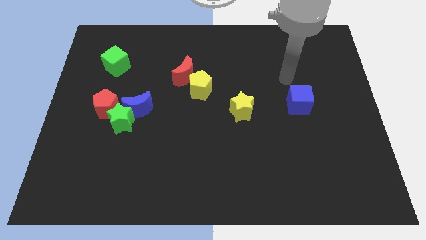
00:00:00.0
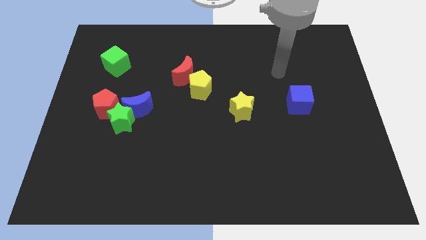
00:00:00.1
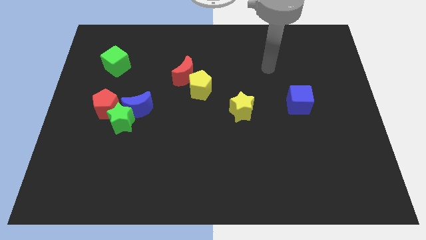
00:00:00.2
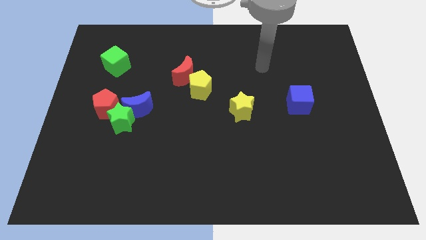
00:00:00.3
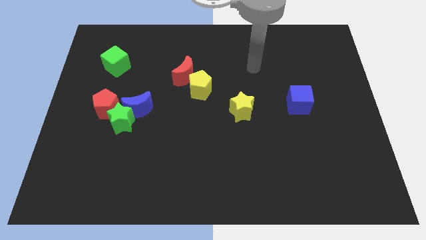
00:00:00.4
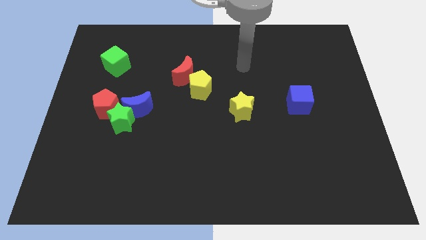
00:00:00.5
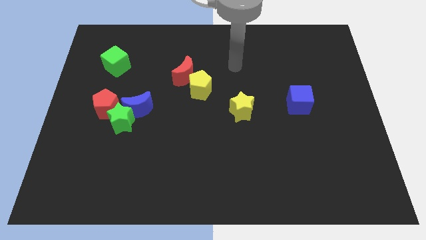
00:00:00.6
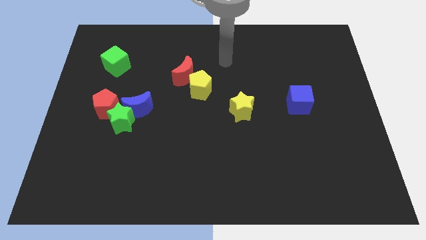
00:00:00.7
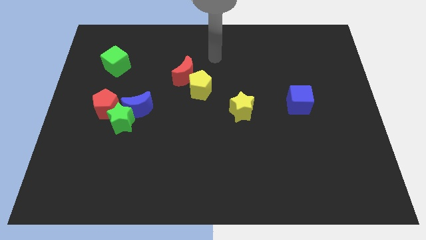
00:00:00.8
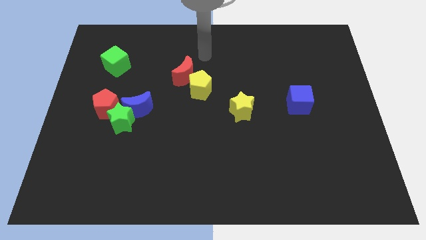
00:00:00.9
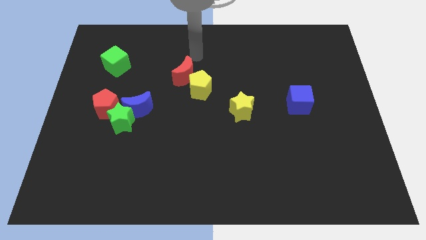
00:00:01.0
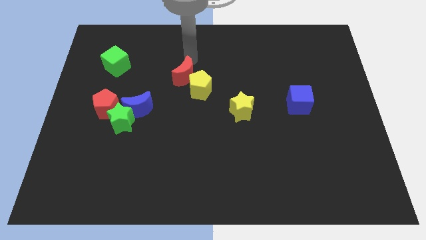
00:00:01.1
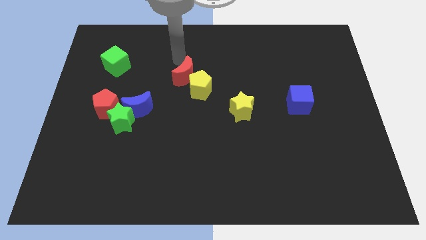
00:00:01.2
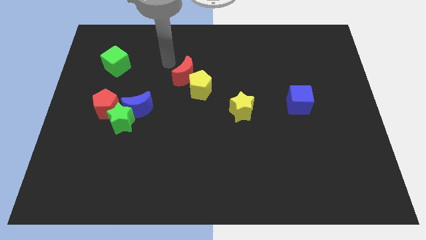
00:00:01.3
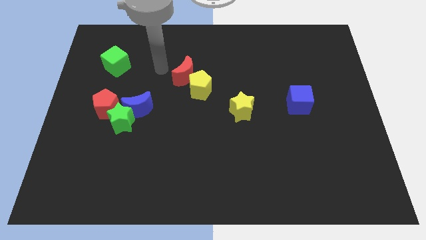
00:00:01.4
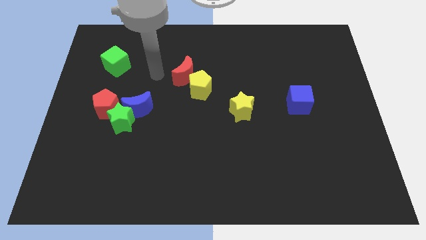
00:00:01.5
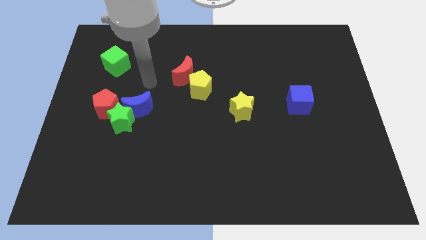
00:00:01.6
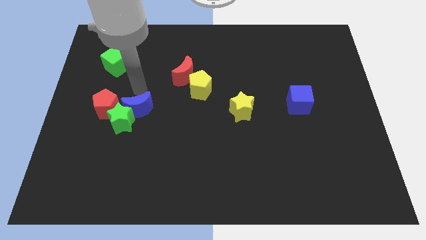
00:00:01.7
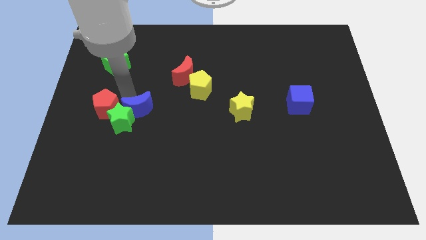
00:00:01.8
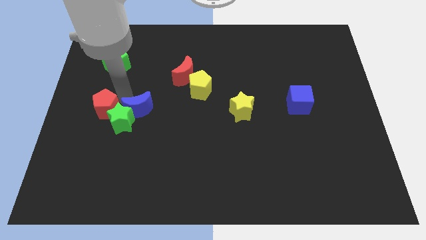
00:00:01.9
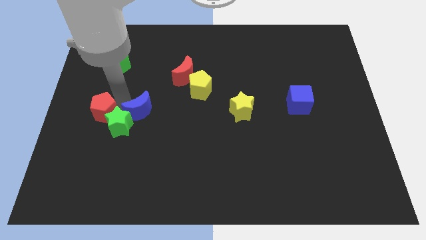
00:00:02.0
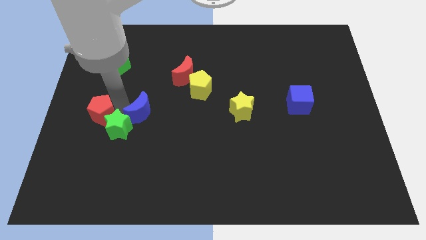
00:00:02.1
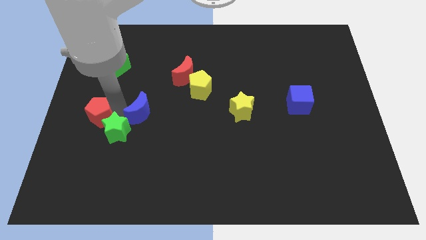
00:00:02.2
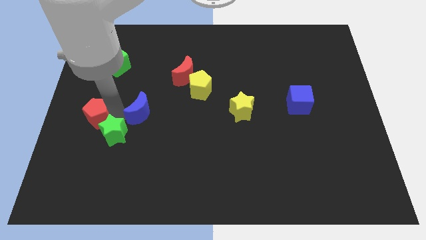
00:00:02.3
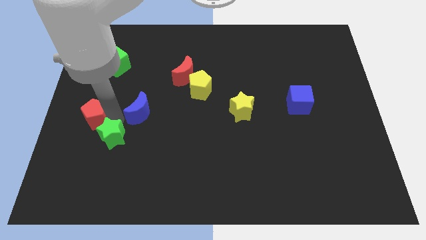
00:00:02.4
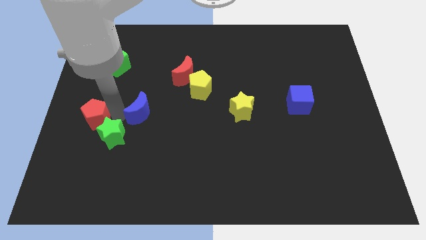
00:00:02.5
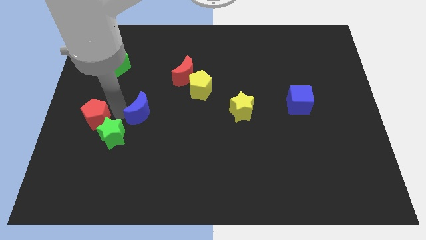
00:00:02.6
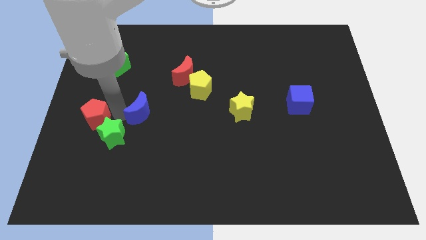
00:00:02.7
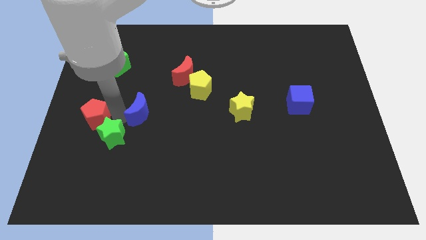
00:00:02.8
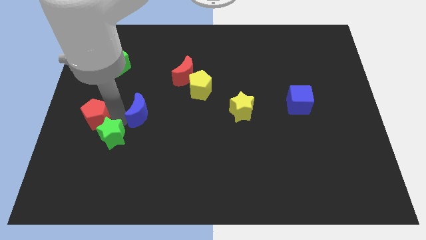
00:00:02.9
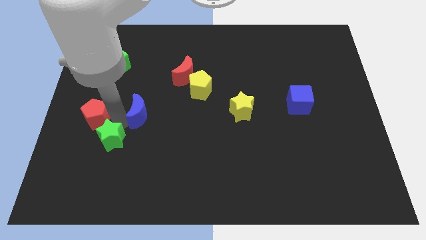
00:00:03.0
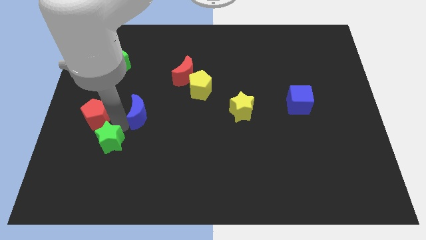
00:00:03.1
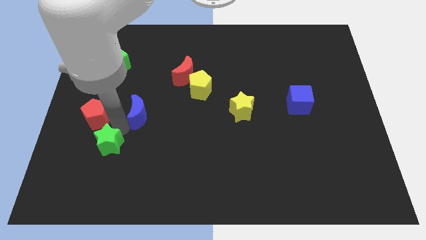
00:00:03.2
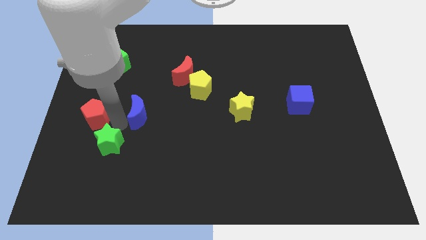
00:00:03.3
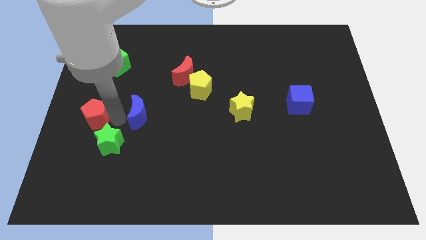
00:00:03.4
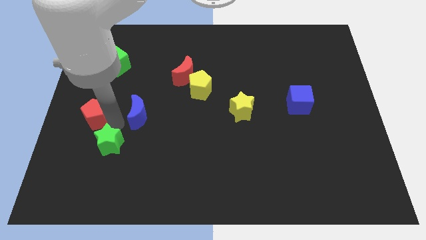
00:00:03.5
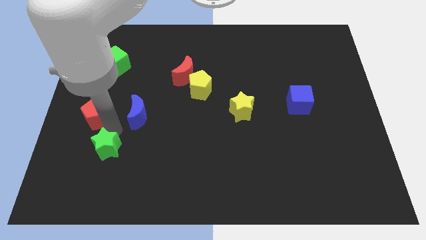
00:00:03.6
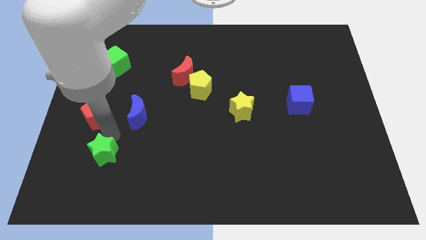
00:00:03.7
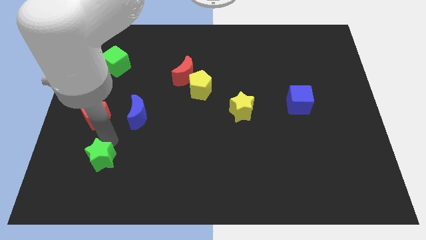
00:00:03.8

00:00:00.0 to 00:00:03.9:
move the green star away from the blue moon and red pentagon

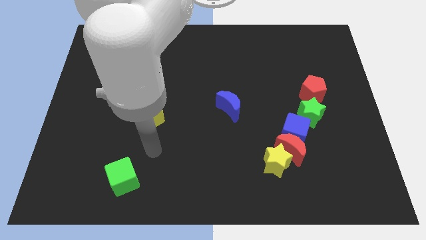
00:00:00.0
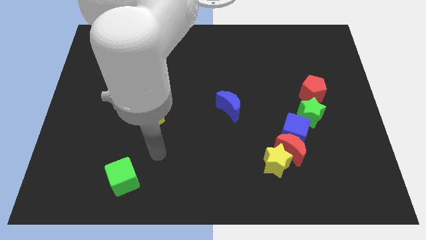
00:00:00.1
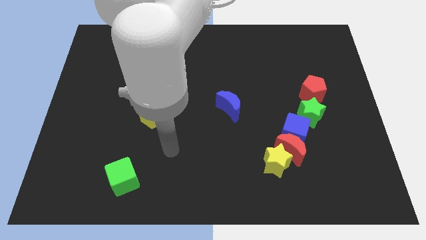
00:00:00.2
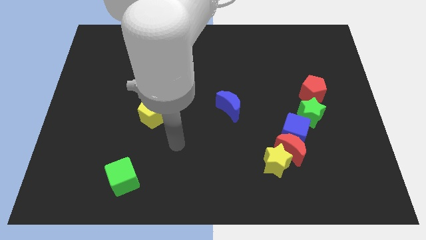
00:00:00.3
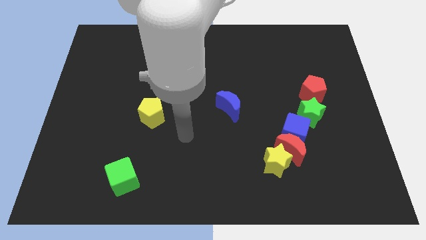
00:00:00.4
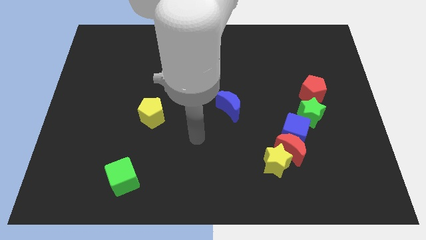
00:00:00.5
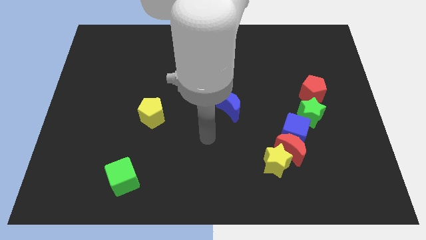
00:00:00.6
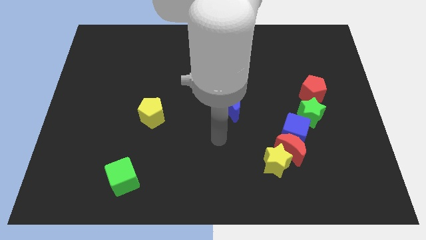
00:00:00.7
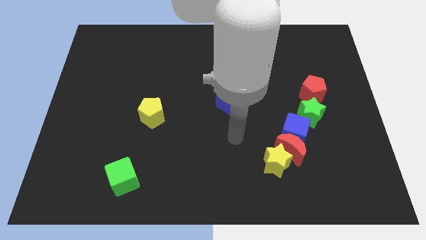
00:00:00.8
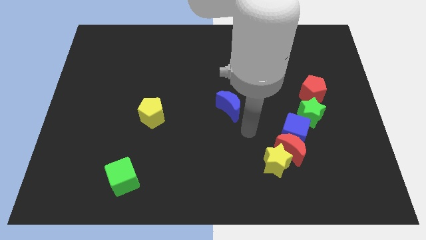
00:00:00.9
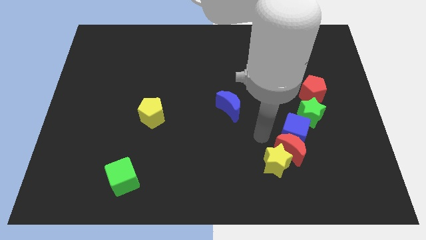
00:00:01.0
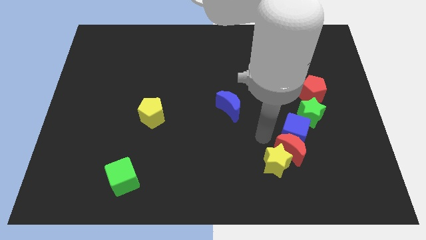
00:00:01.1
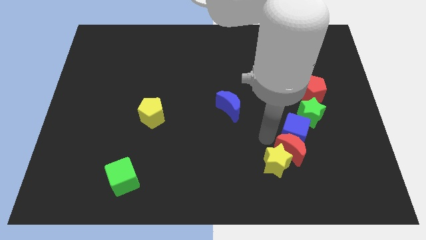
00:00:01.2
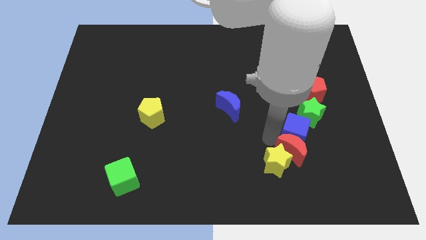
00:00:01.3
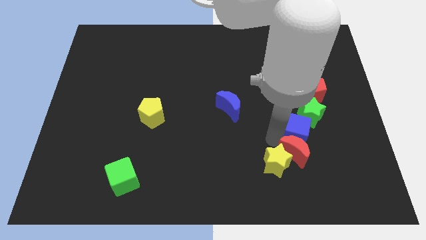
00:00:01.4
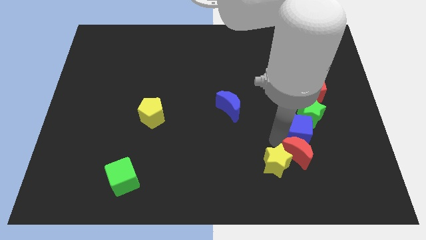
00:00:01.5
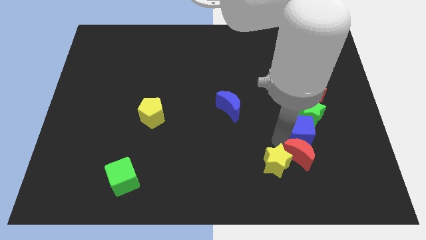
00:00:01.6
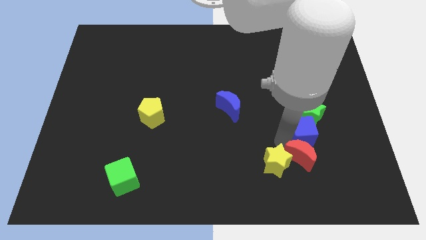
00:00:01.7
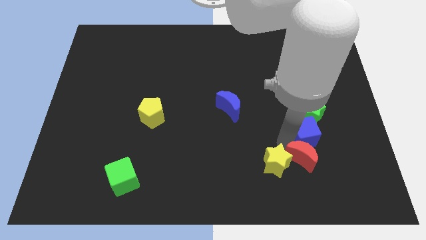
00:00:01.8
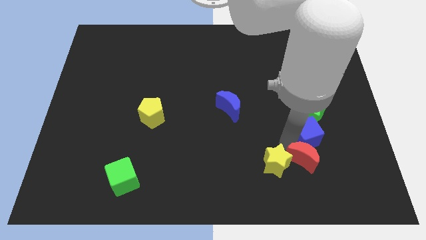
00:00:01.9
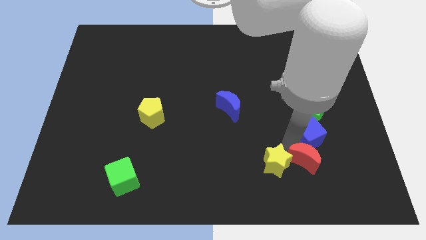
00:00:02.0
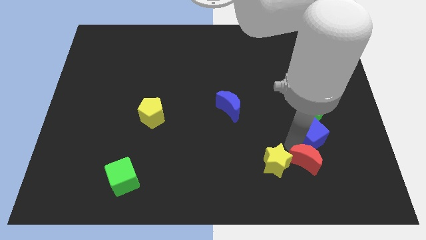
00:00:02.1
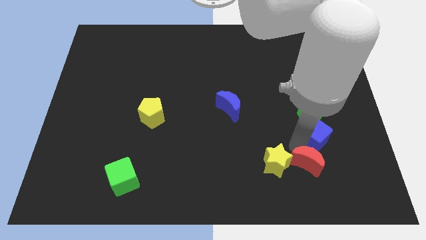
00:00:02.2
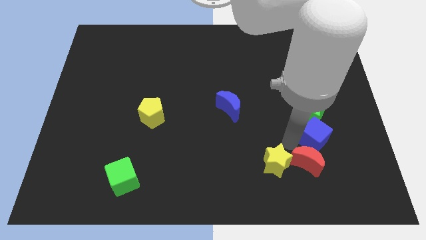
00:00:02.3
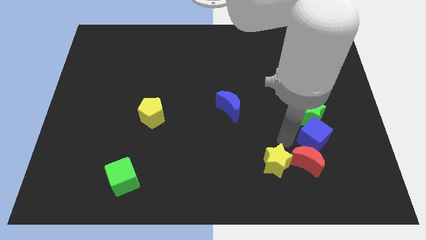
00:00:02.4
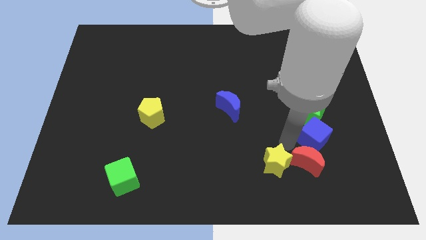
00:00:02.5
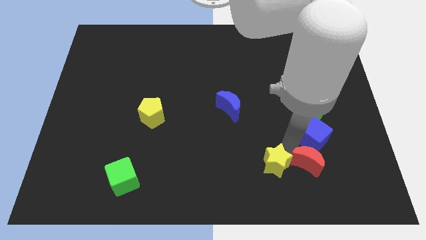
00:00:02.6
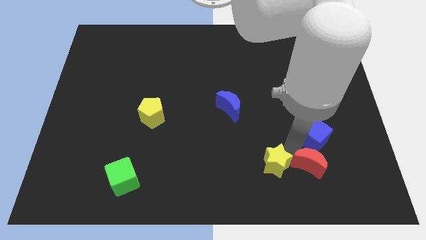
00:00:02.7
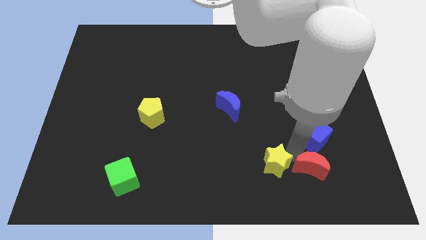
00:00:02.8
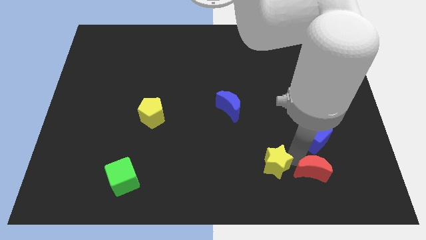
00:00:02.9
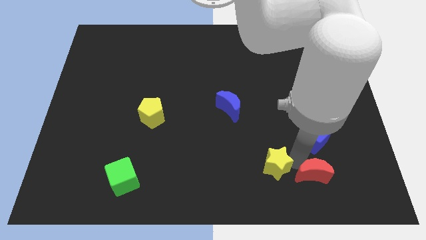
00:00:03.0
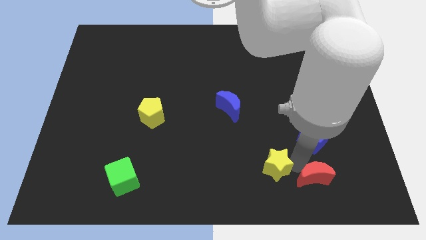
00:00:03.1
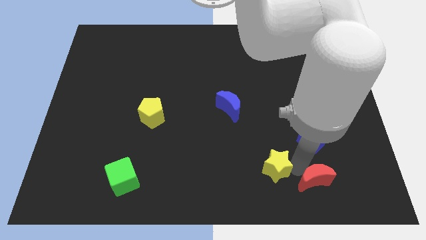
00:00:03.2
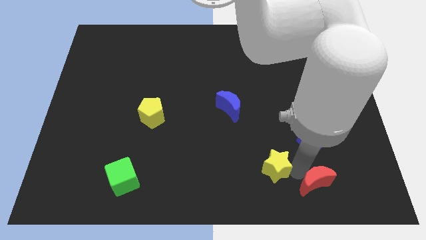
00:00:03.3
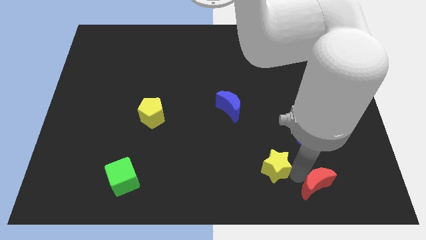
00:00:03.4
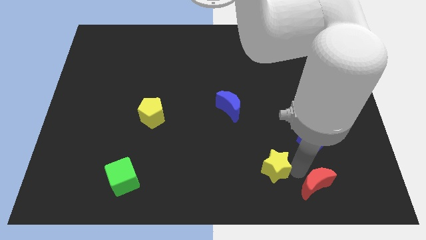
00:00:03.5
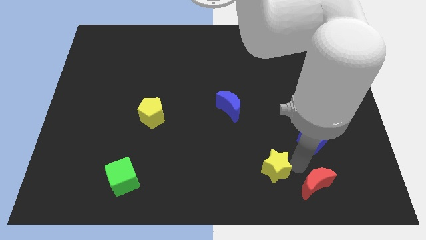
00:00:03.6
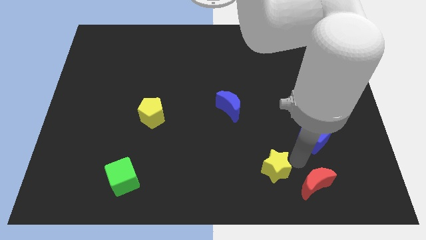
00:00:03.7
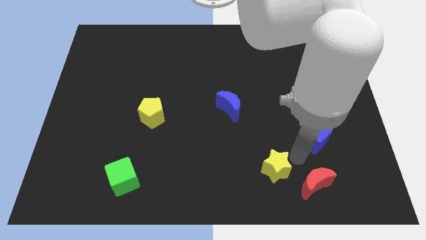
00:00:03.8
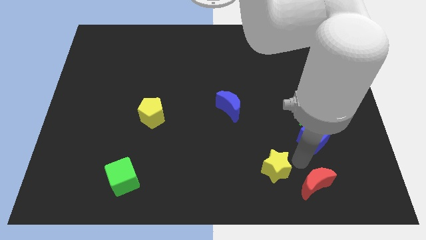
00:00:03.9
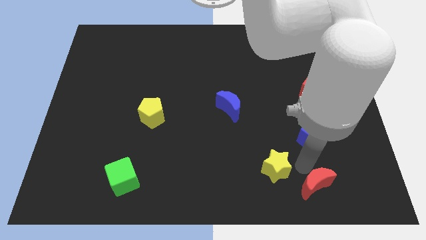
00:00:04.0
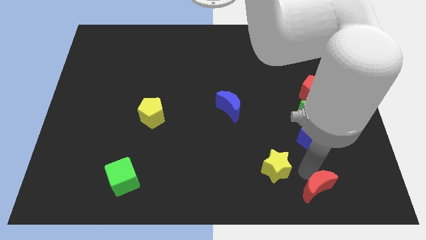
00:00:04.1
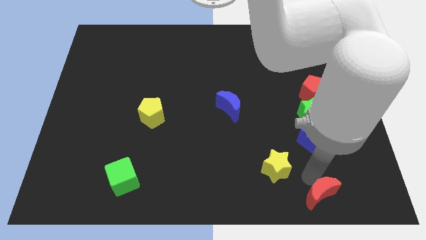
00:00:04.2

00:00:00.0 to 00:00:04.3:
move the red moon away from the blue cube and yellow star

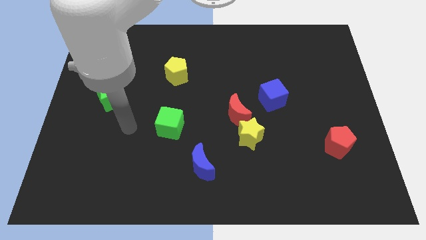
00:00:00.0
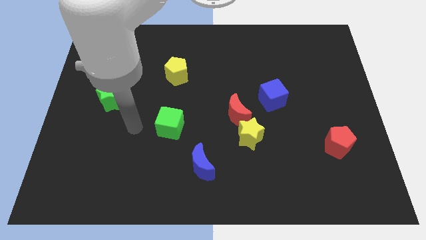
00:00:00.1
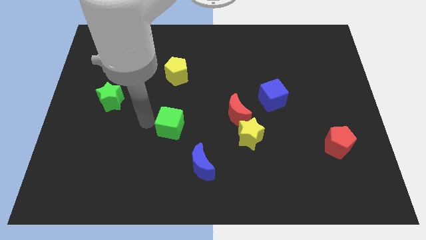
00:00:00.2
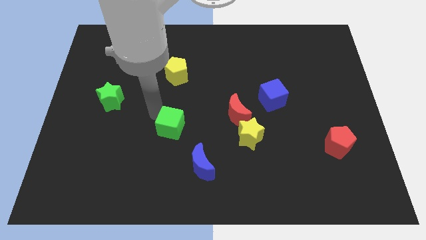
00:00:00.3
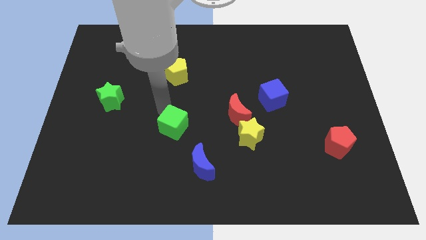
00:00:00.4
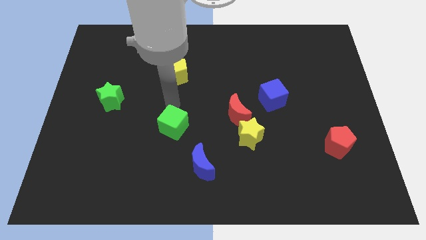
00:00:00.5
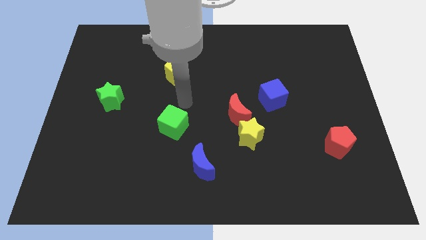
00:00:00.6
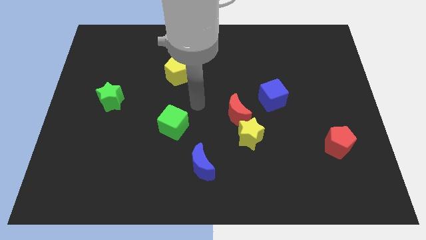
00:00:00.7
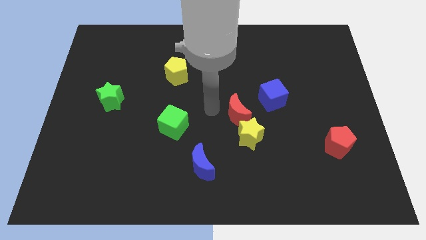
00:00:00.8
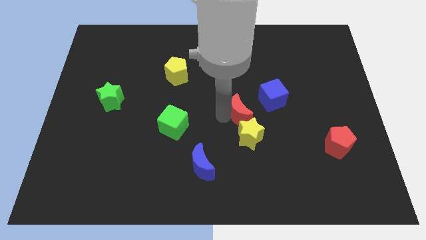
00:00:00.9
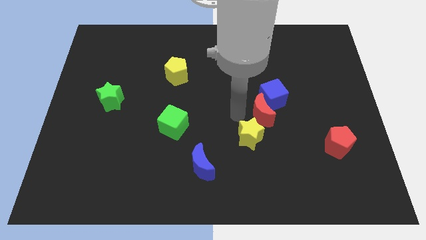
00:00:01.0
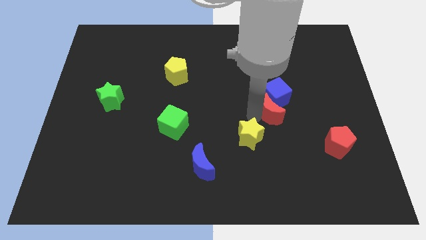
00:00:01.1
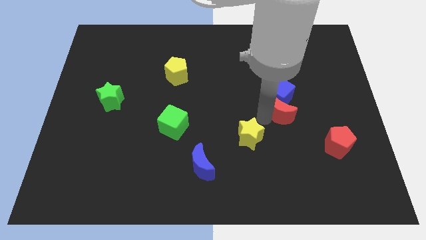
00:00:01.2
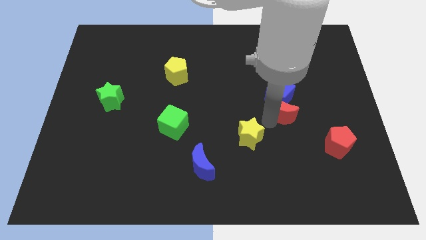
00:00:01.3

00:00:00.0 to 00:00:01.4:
move the yellow star away from the red moon
